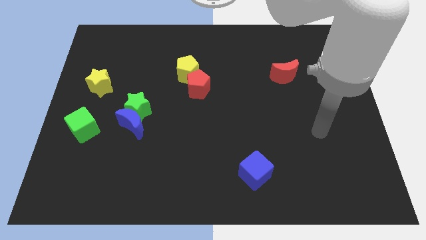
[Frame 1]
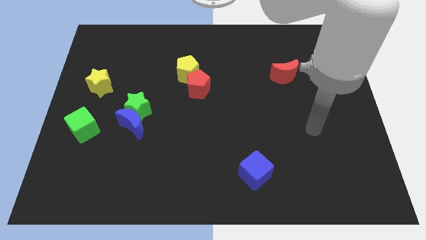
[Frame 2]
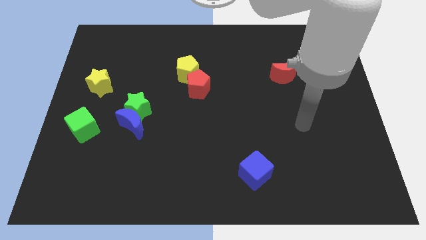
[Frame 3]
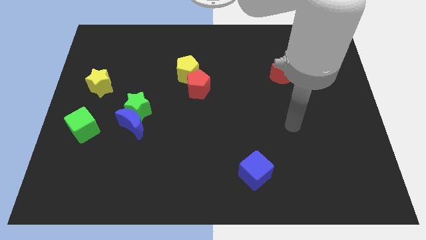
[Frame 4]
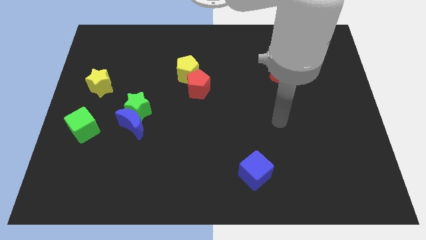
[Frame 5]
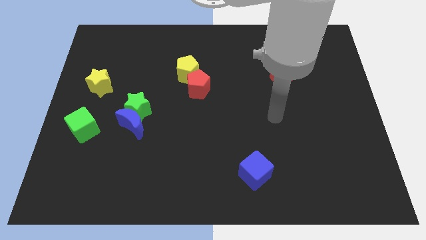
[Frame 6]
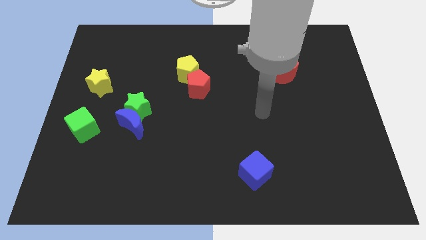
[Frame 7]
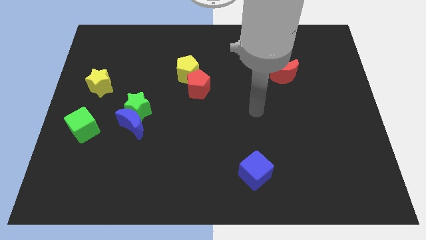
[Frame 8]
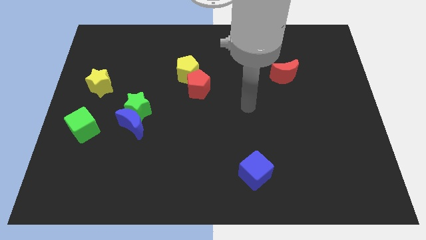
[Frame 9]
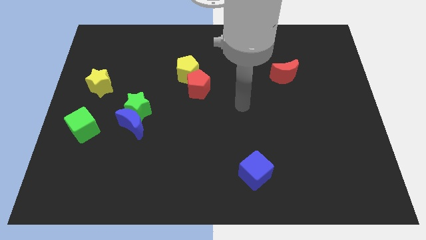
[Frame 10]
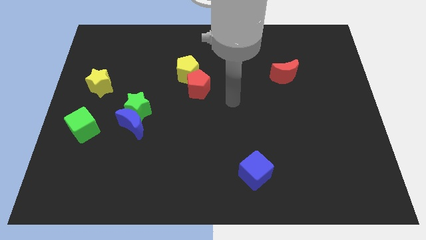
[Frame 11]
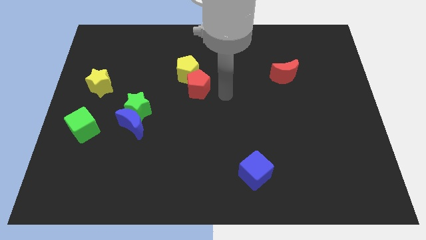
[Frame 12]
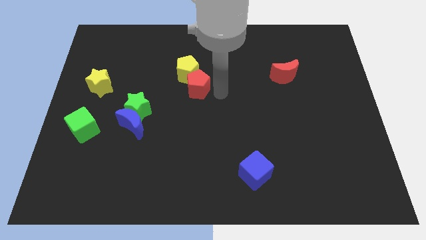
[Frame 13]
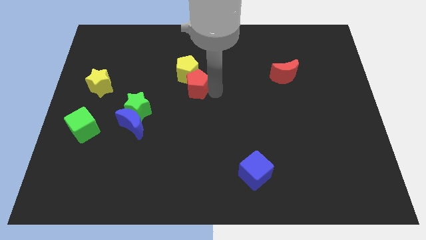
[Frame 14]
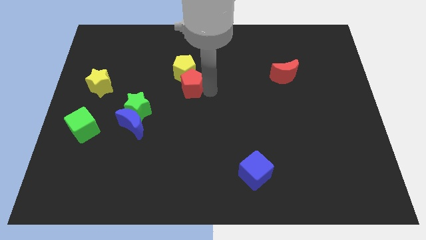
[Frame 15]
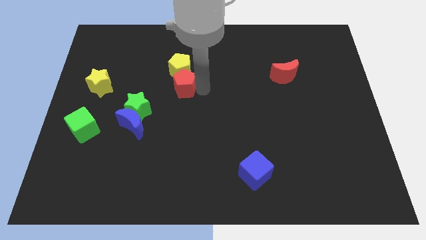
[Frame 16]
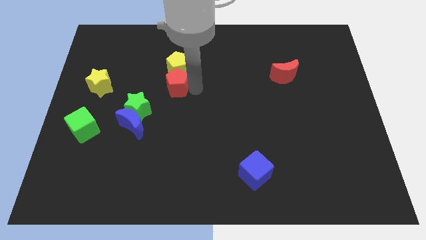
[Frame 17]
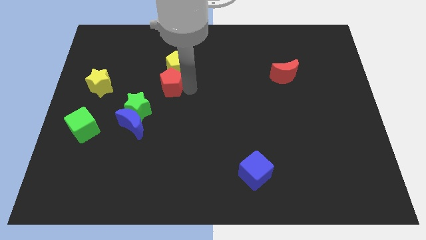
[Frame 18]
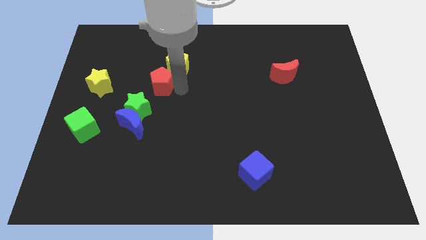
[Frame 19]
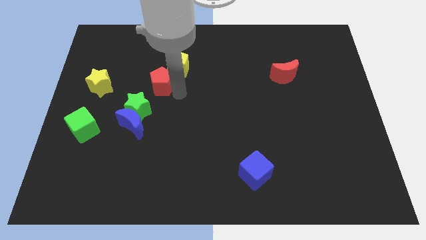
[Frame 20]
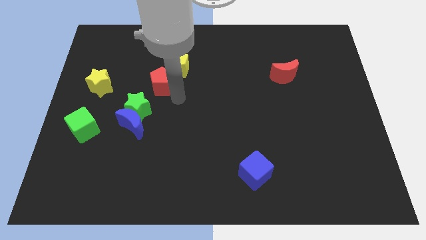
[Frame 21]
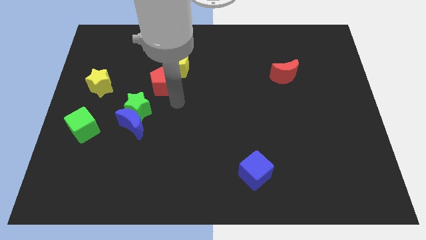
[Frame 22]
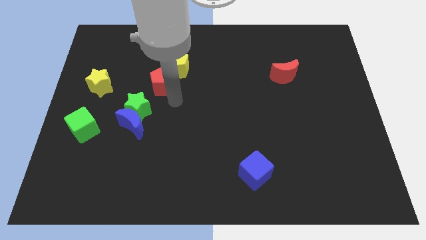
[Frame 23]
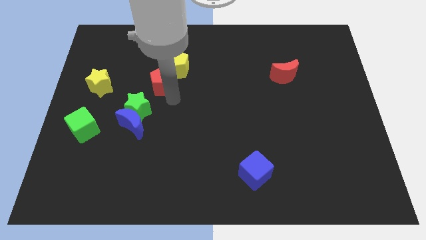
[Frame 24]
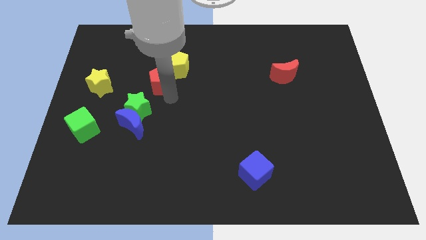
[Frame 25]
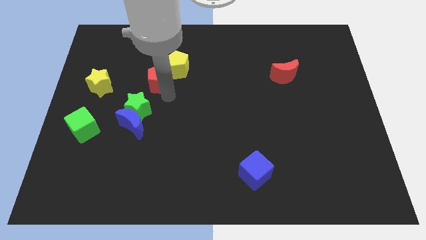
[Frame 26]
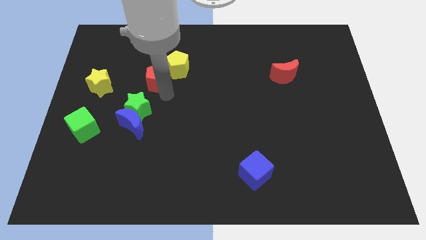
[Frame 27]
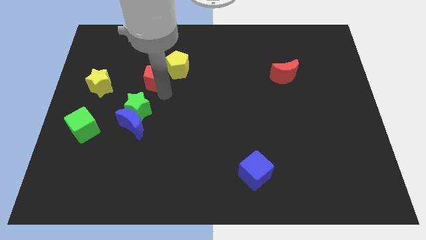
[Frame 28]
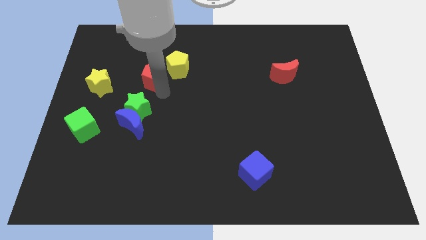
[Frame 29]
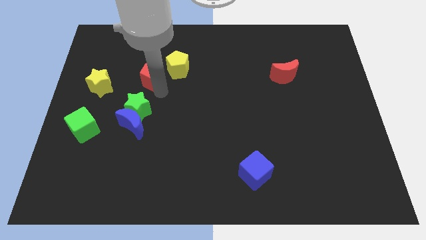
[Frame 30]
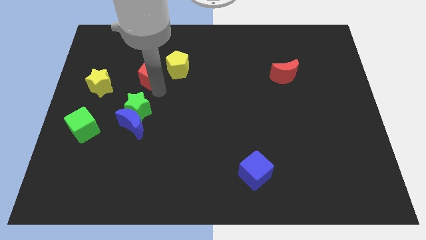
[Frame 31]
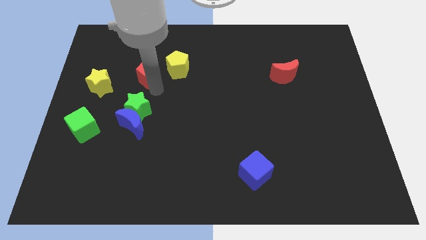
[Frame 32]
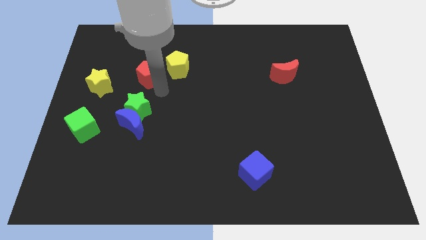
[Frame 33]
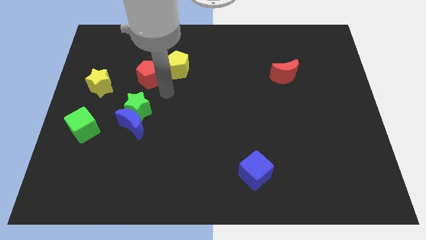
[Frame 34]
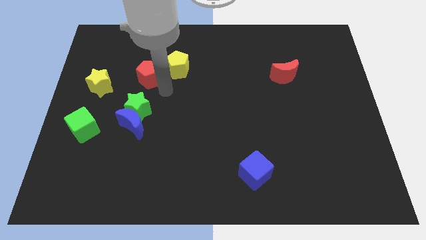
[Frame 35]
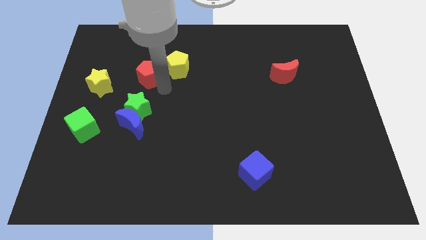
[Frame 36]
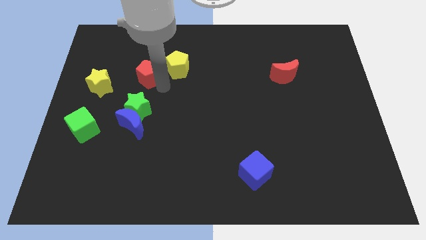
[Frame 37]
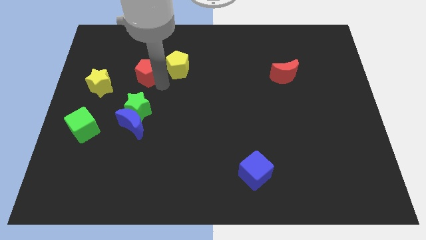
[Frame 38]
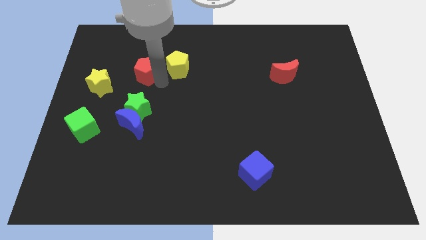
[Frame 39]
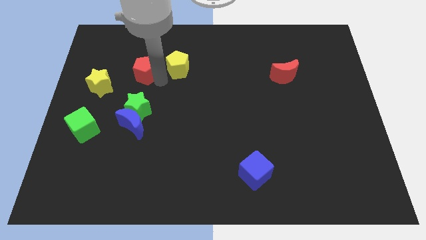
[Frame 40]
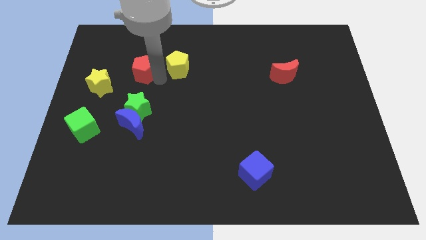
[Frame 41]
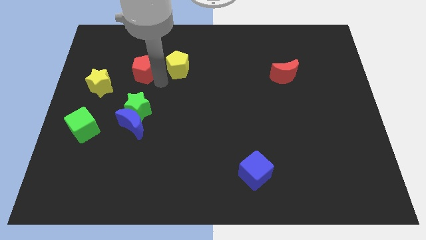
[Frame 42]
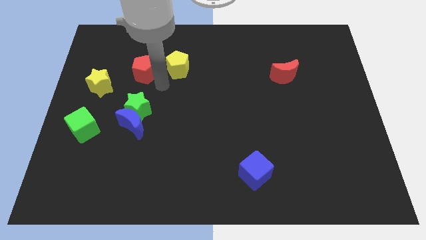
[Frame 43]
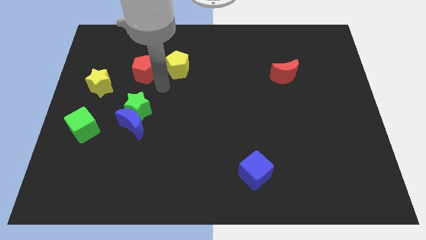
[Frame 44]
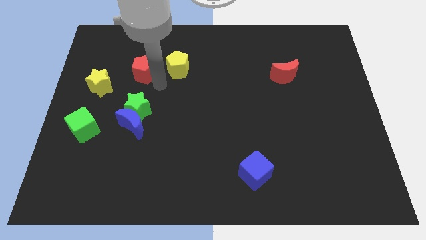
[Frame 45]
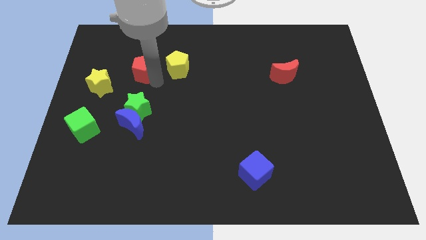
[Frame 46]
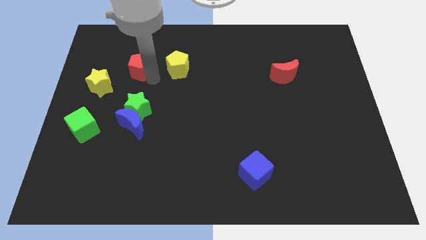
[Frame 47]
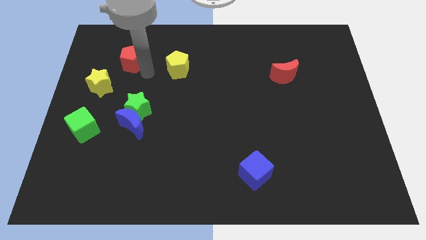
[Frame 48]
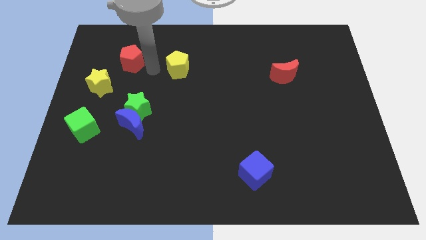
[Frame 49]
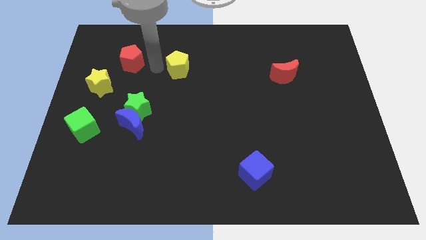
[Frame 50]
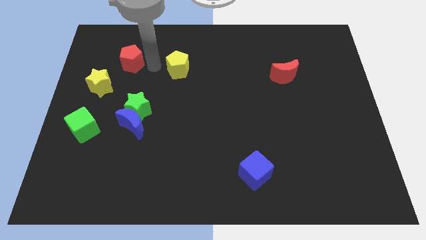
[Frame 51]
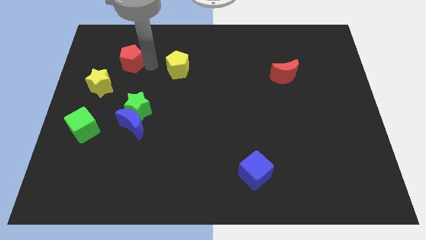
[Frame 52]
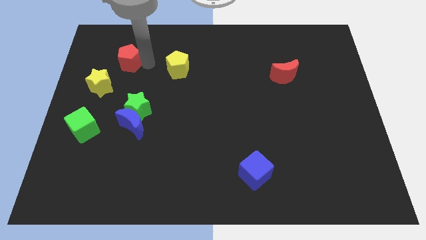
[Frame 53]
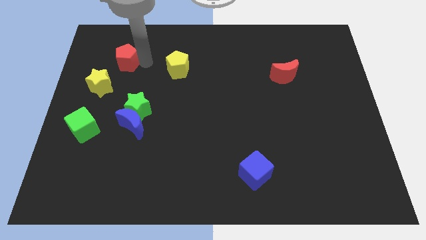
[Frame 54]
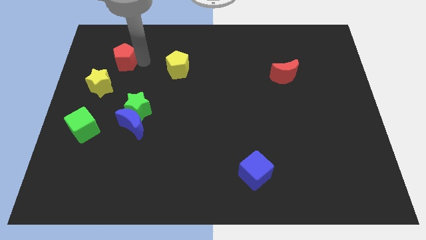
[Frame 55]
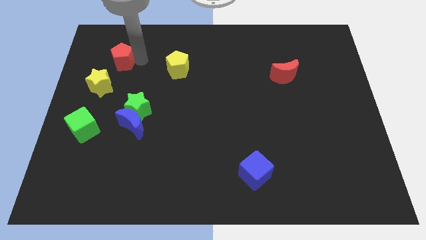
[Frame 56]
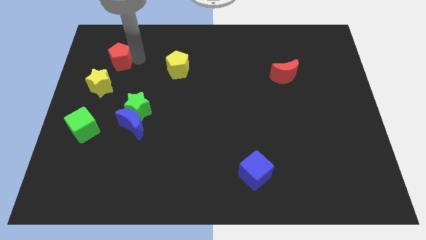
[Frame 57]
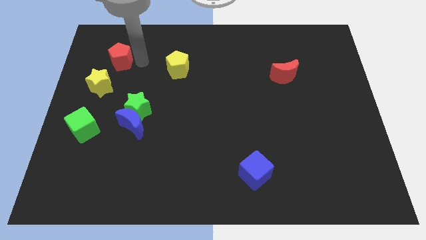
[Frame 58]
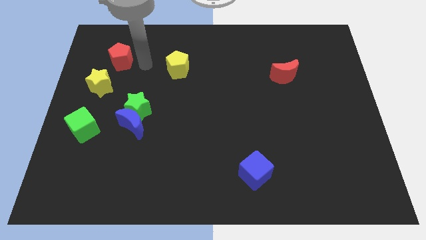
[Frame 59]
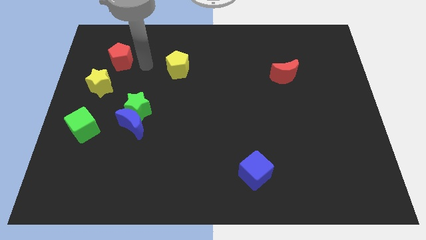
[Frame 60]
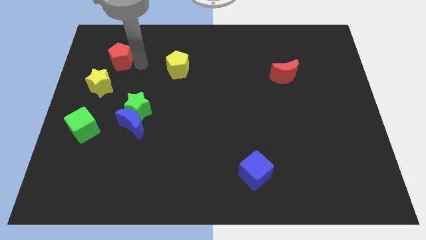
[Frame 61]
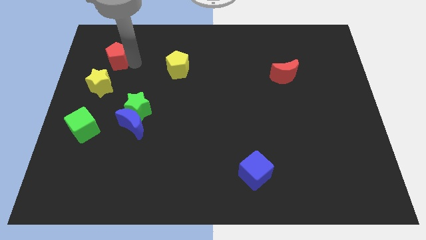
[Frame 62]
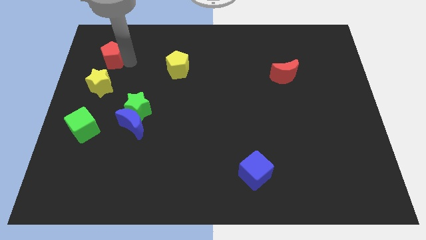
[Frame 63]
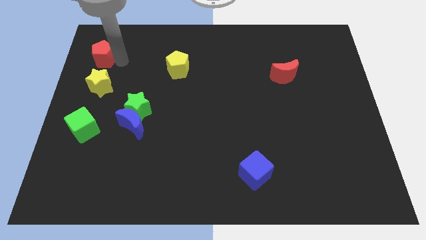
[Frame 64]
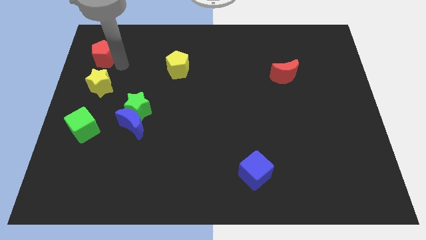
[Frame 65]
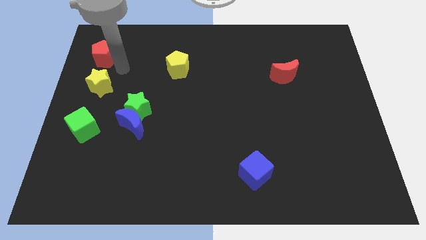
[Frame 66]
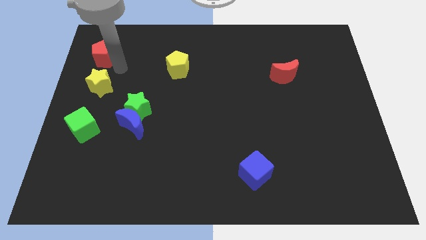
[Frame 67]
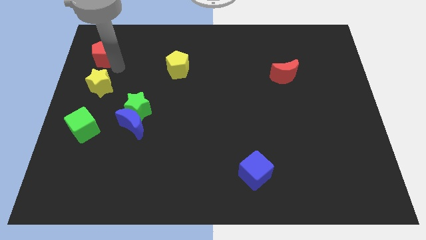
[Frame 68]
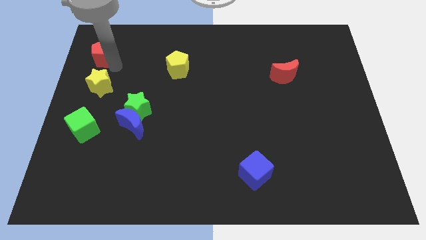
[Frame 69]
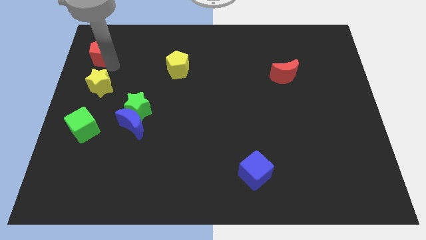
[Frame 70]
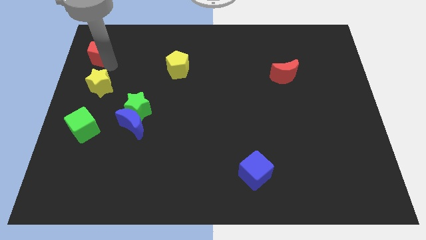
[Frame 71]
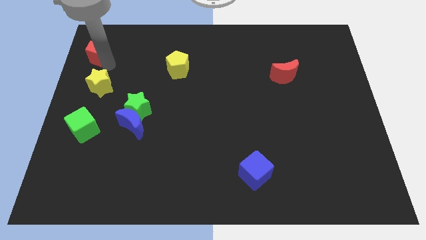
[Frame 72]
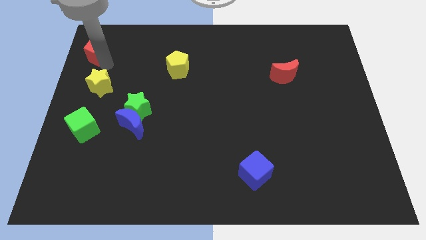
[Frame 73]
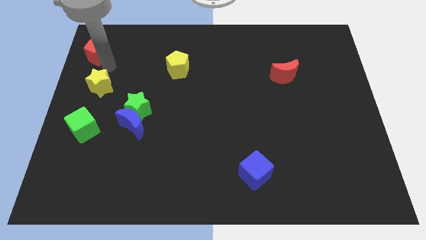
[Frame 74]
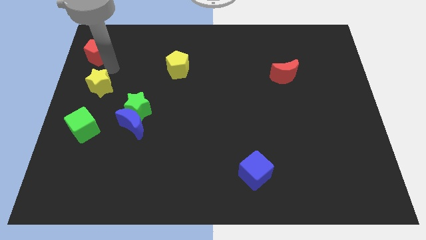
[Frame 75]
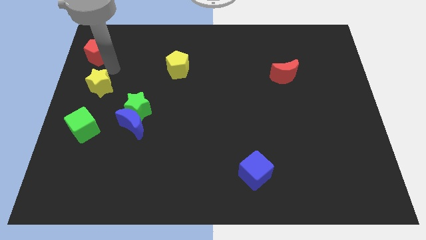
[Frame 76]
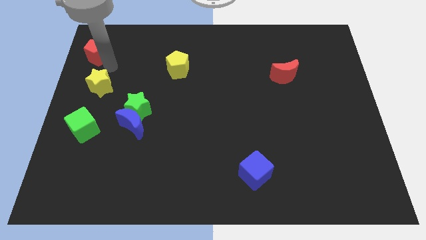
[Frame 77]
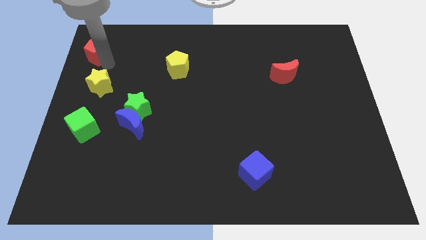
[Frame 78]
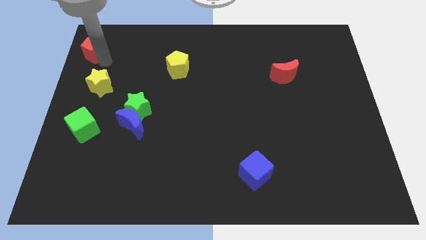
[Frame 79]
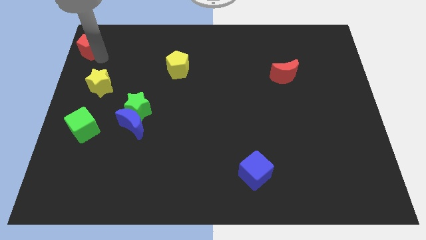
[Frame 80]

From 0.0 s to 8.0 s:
push the red pentagon to the top left of the board
